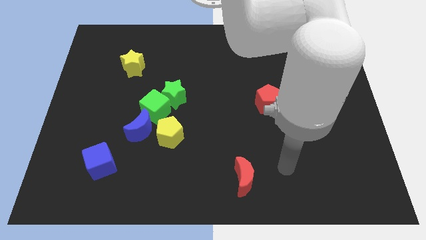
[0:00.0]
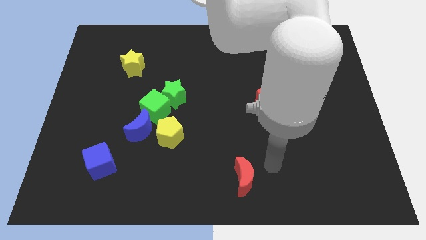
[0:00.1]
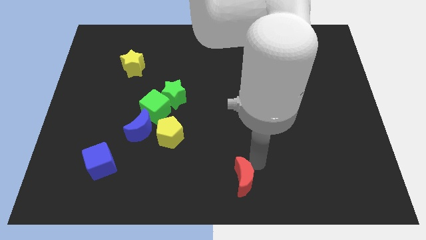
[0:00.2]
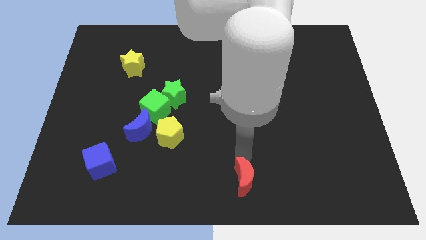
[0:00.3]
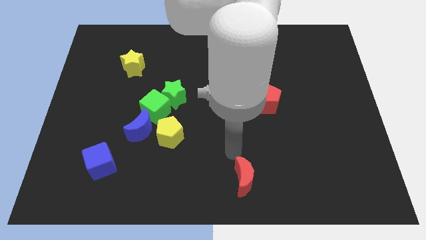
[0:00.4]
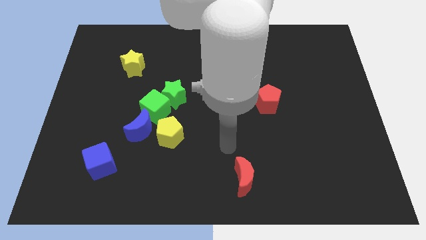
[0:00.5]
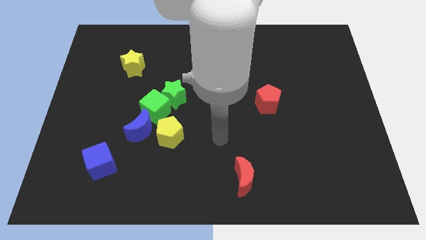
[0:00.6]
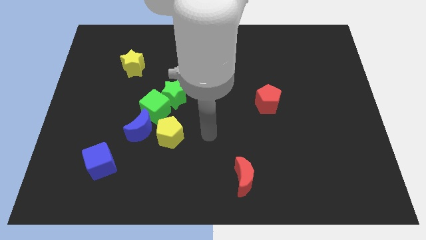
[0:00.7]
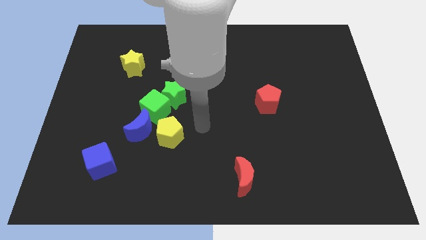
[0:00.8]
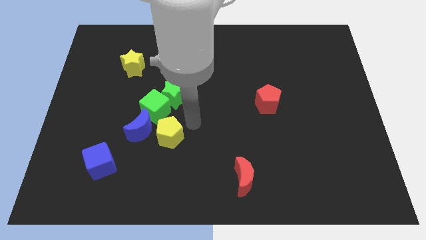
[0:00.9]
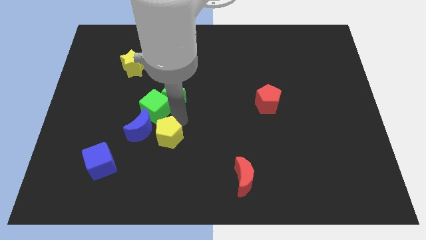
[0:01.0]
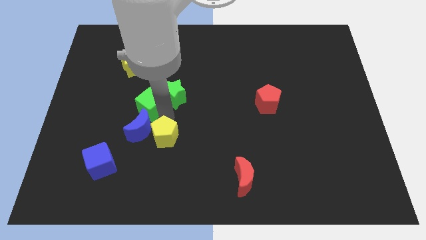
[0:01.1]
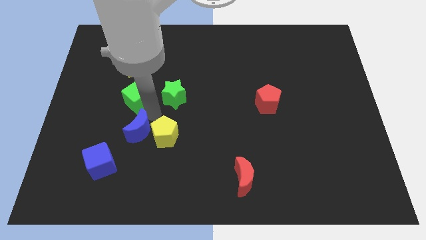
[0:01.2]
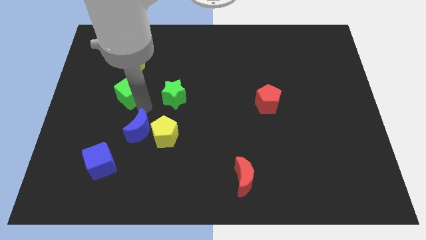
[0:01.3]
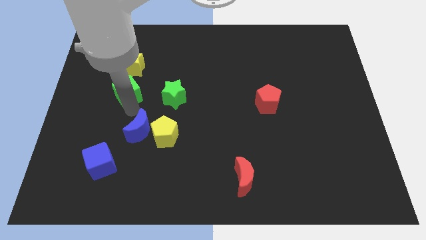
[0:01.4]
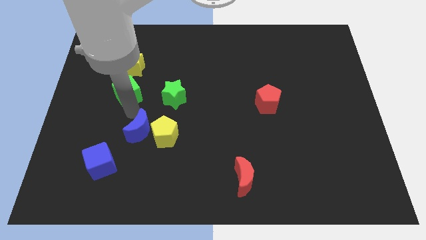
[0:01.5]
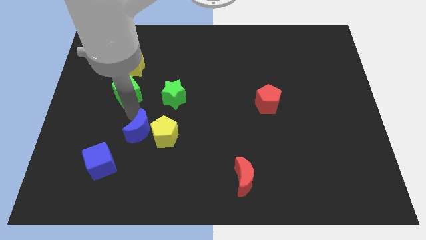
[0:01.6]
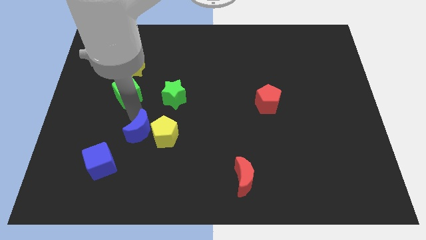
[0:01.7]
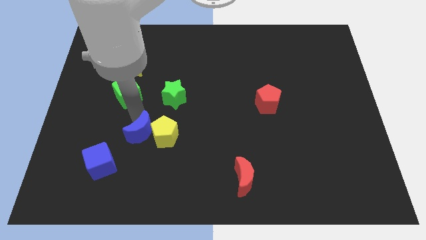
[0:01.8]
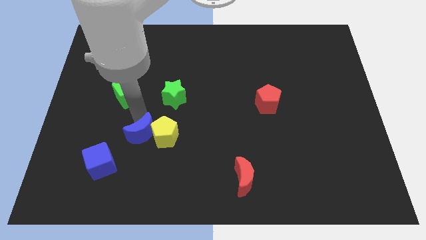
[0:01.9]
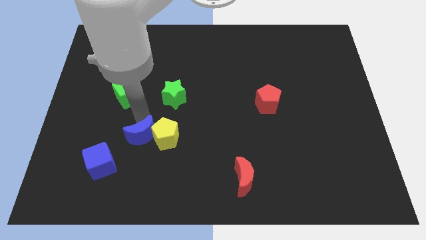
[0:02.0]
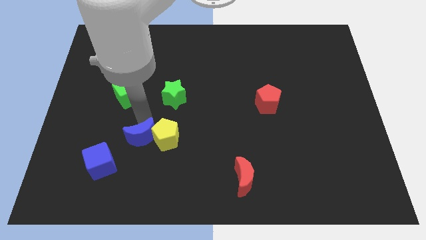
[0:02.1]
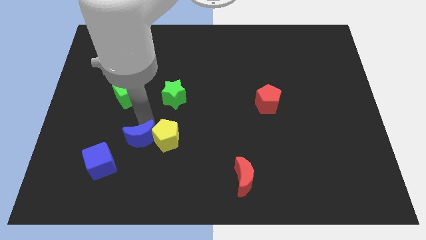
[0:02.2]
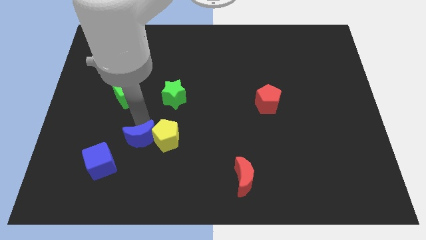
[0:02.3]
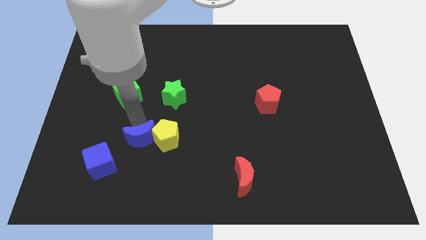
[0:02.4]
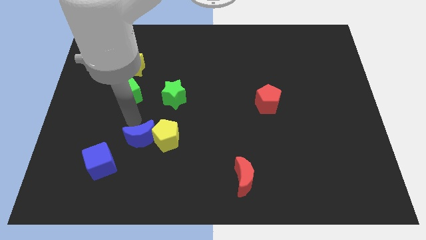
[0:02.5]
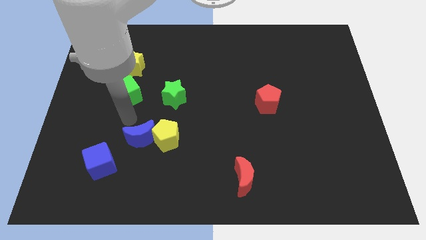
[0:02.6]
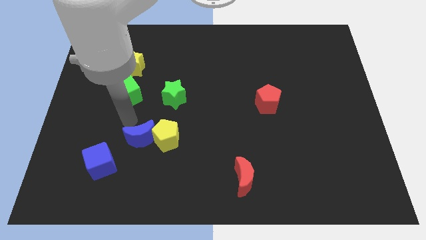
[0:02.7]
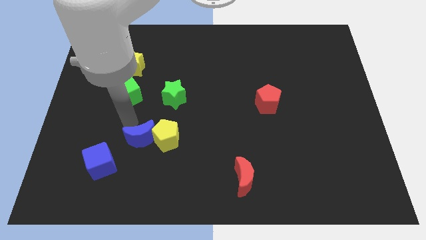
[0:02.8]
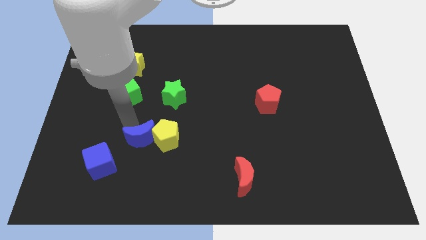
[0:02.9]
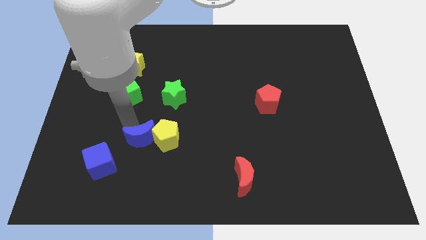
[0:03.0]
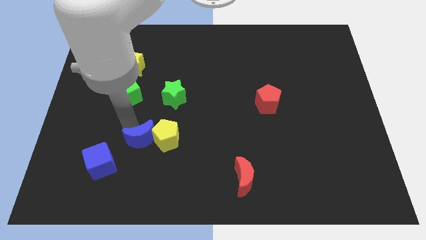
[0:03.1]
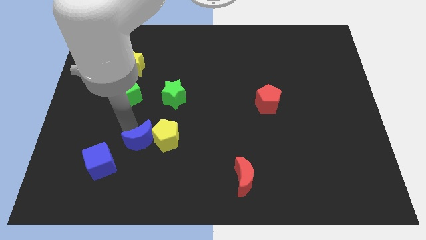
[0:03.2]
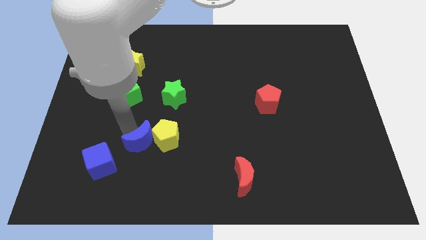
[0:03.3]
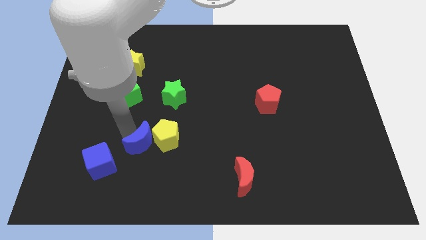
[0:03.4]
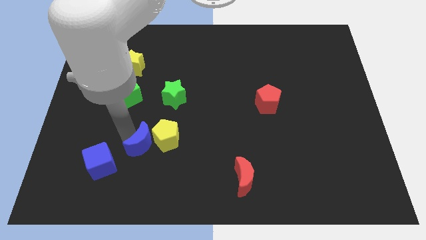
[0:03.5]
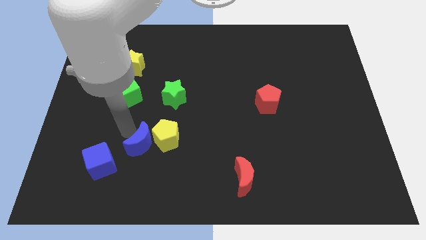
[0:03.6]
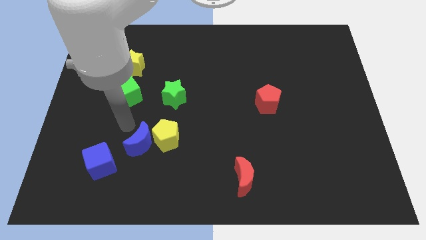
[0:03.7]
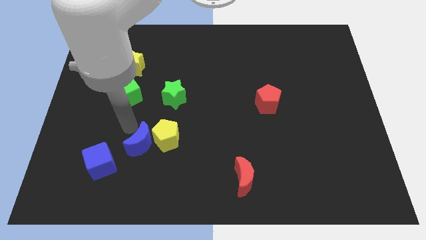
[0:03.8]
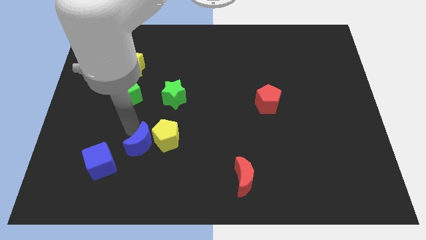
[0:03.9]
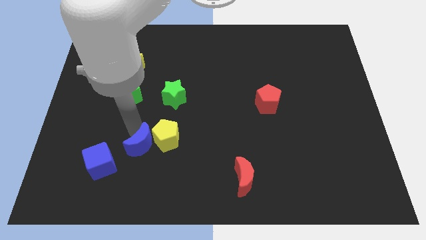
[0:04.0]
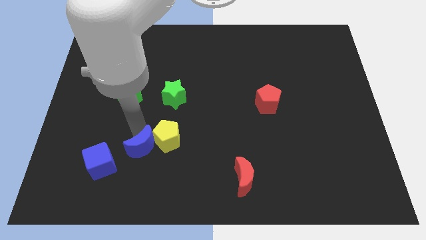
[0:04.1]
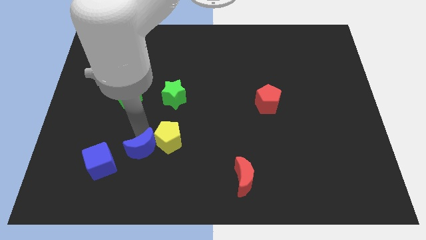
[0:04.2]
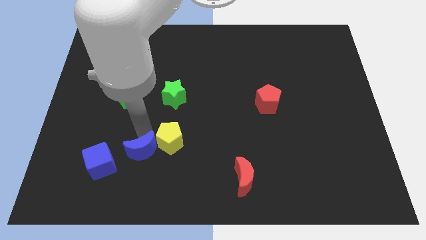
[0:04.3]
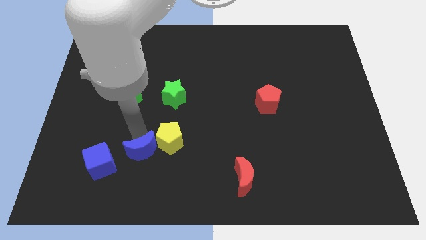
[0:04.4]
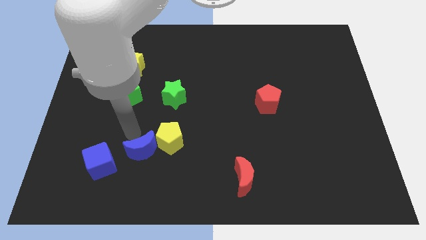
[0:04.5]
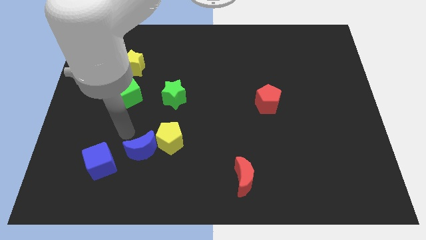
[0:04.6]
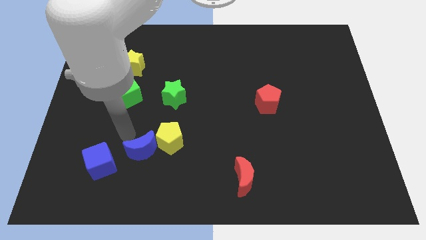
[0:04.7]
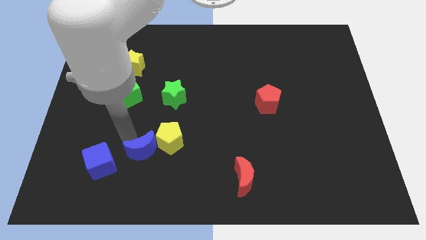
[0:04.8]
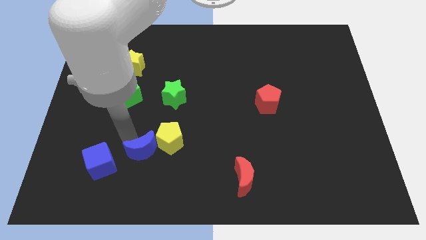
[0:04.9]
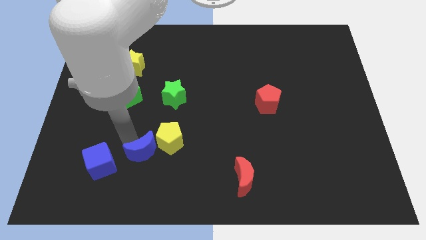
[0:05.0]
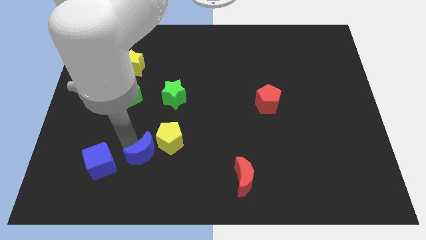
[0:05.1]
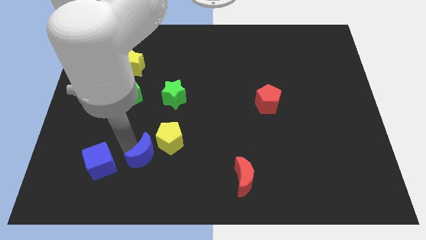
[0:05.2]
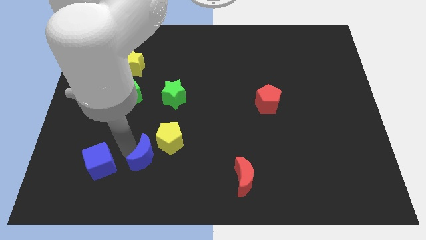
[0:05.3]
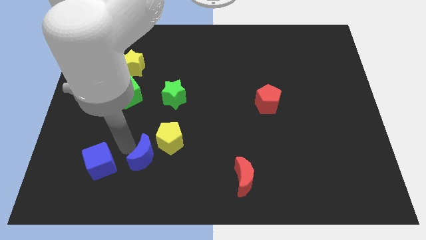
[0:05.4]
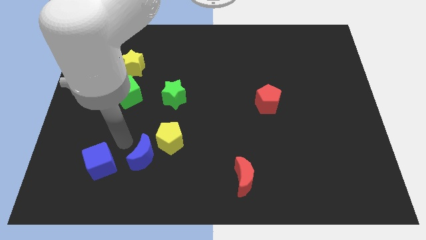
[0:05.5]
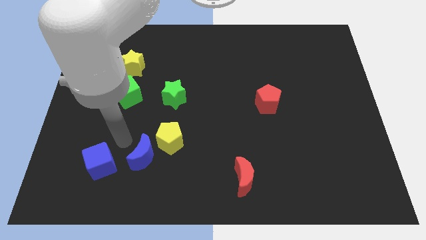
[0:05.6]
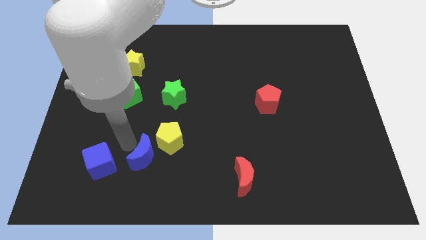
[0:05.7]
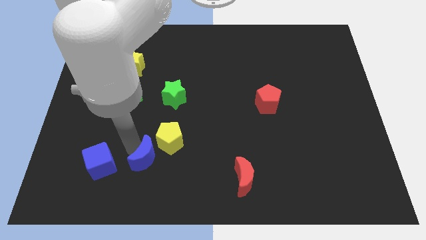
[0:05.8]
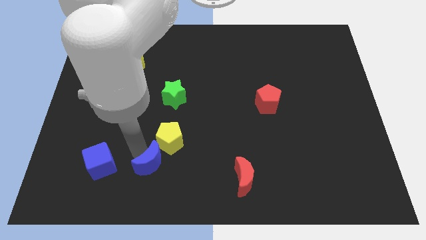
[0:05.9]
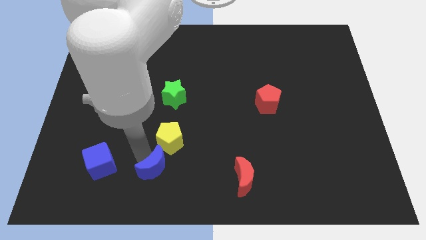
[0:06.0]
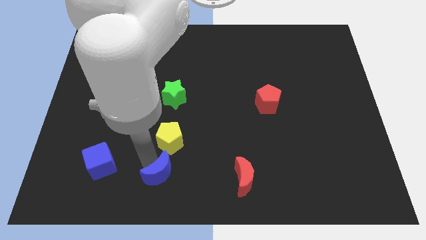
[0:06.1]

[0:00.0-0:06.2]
slide the blue moon to the bottom
